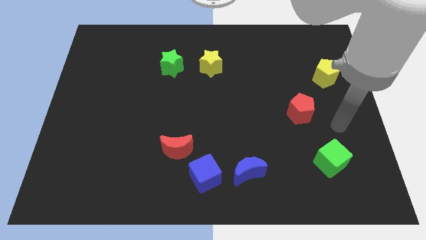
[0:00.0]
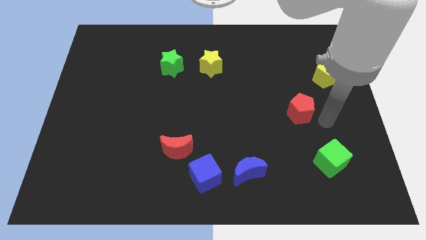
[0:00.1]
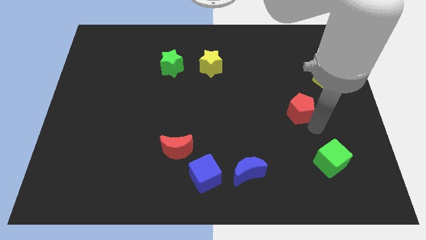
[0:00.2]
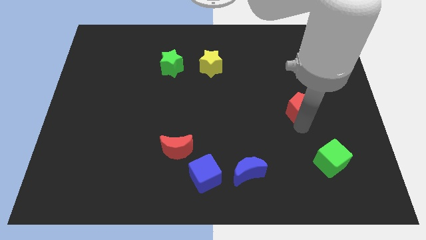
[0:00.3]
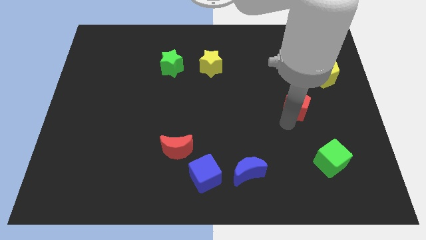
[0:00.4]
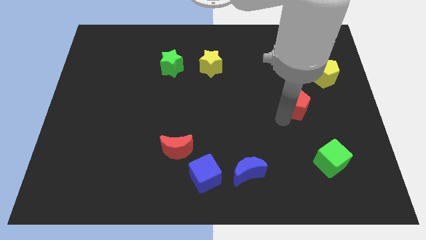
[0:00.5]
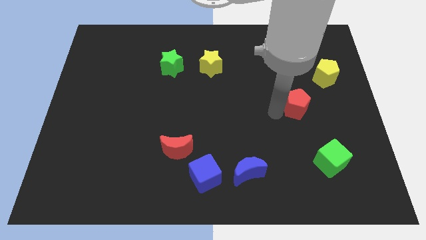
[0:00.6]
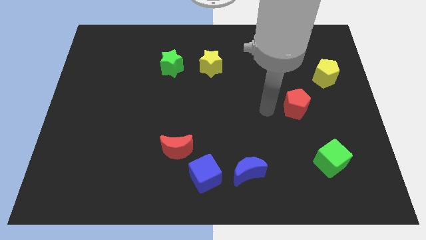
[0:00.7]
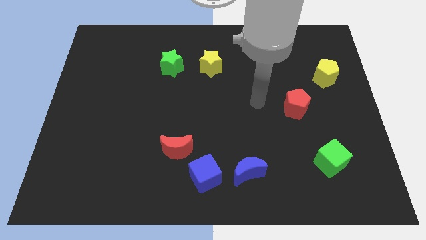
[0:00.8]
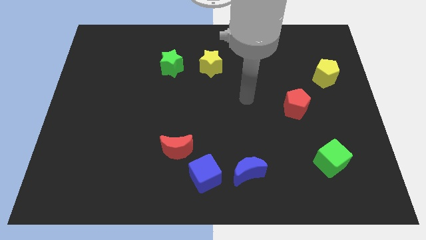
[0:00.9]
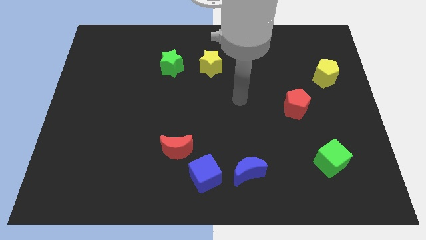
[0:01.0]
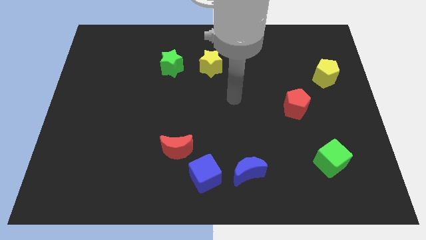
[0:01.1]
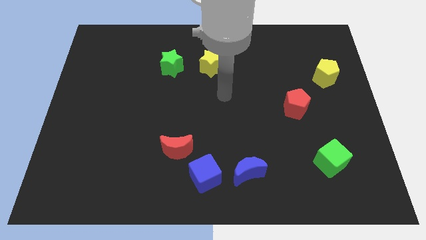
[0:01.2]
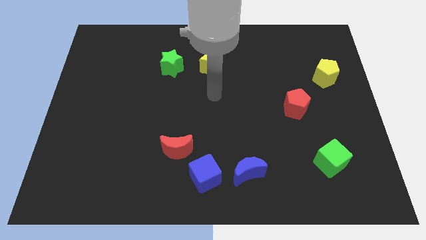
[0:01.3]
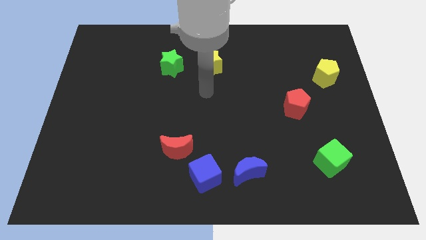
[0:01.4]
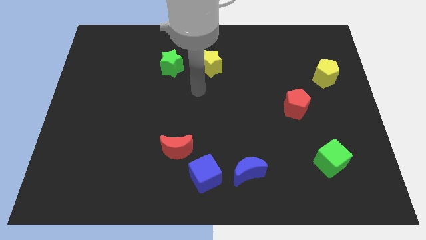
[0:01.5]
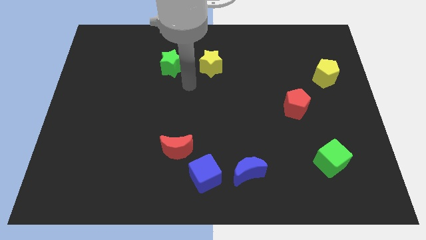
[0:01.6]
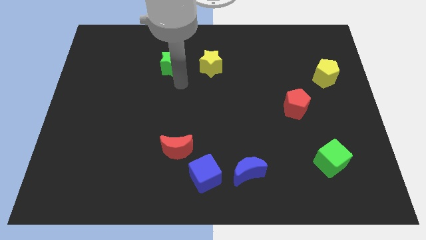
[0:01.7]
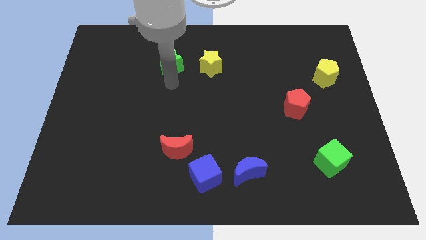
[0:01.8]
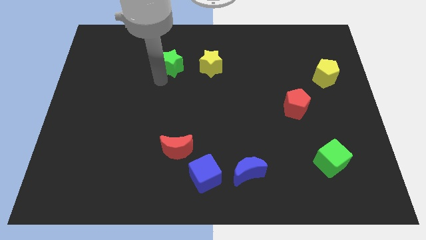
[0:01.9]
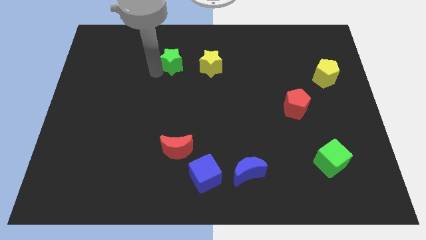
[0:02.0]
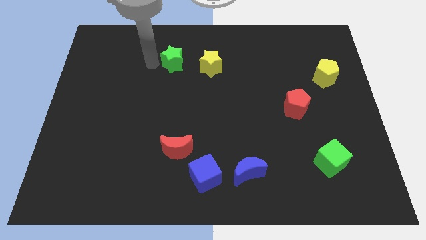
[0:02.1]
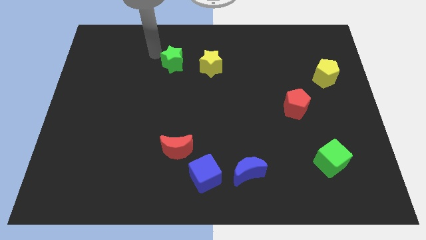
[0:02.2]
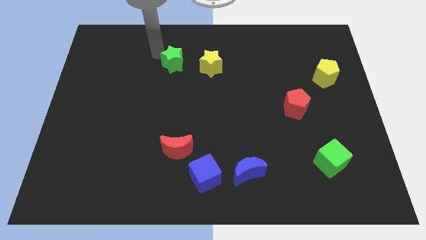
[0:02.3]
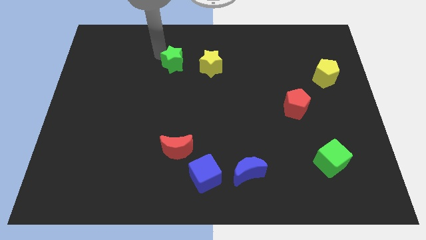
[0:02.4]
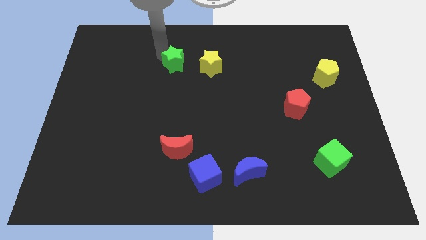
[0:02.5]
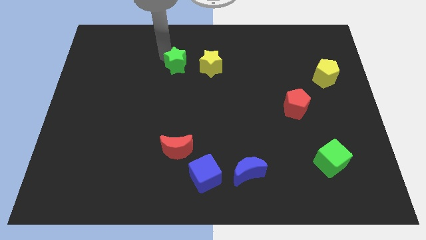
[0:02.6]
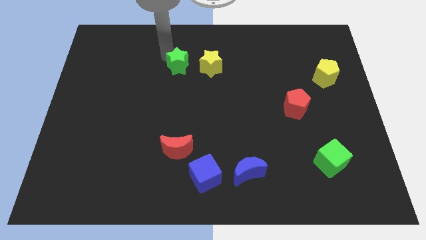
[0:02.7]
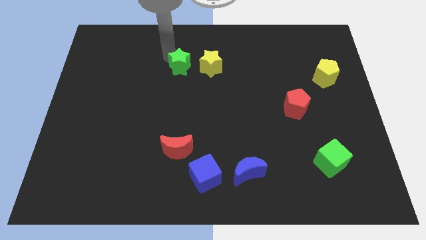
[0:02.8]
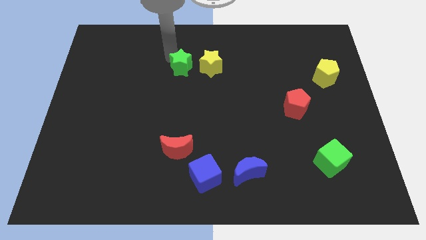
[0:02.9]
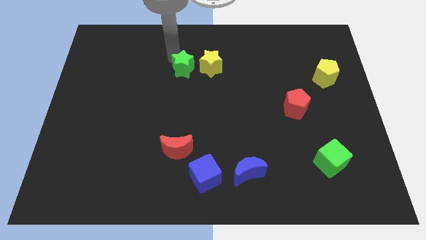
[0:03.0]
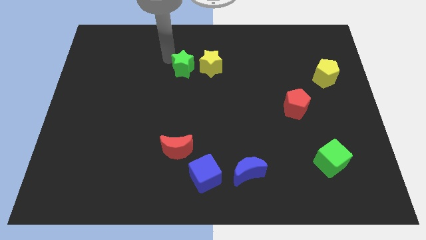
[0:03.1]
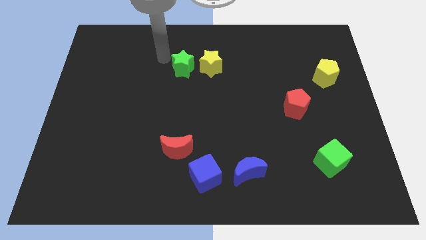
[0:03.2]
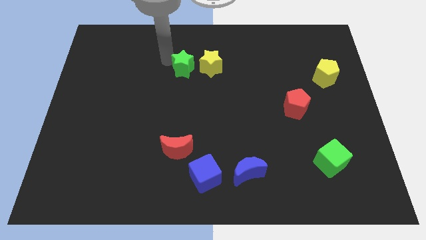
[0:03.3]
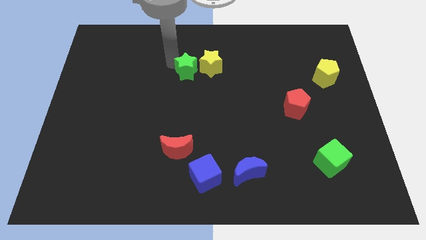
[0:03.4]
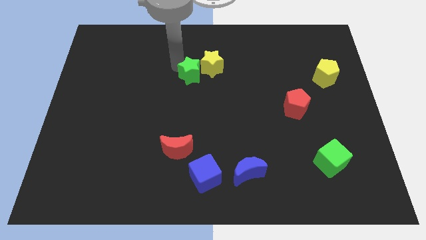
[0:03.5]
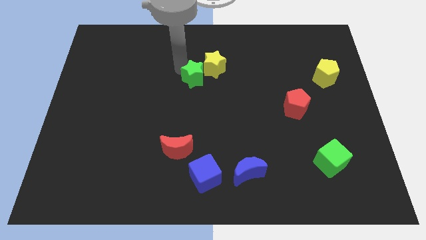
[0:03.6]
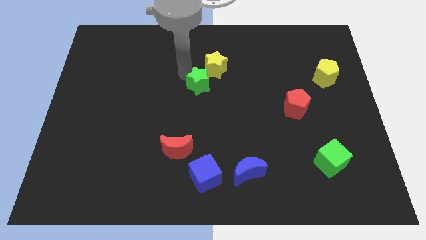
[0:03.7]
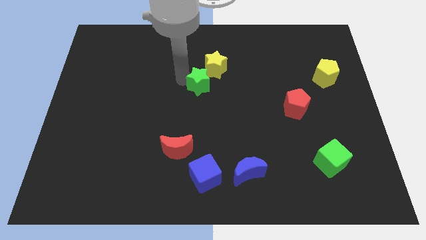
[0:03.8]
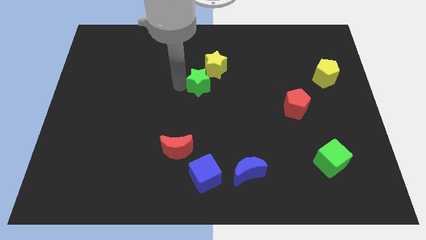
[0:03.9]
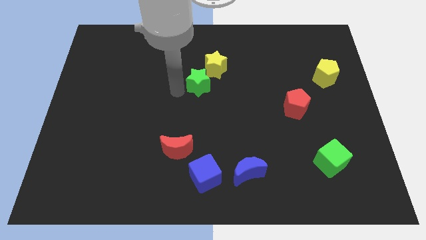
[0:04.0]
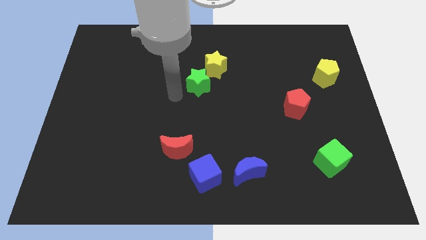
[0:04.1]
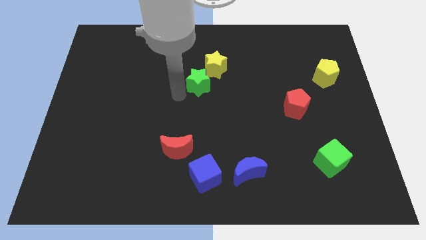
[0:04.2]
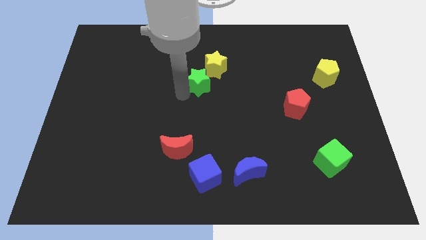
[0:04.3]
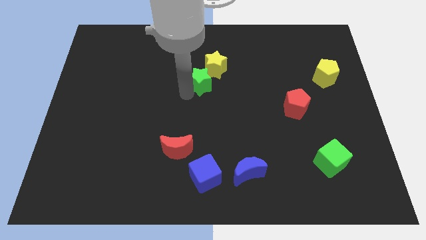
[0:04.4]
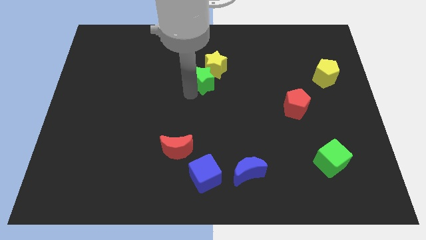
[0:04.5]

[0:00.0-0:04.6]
slightly slide the green star right

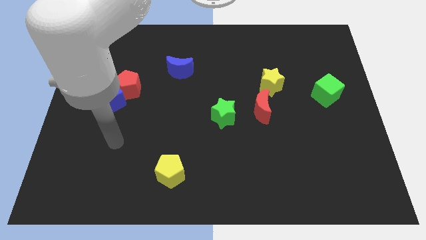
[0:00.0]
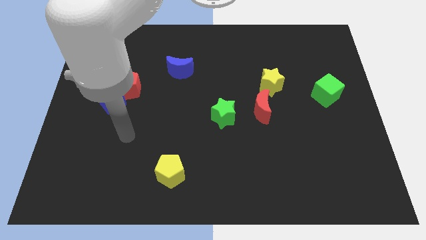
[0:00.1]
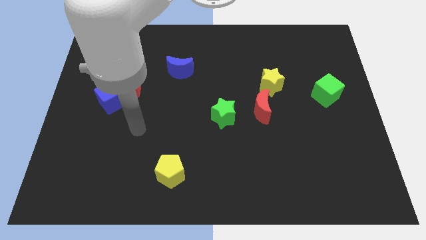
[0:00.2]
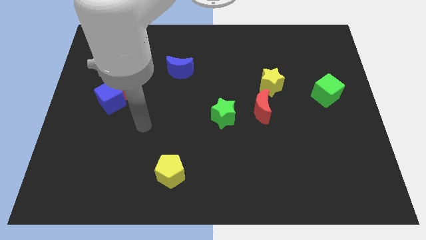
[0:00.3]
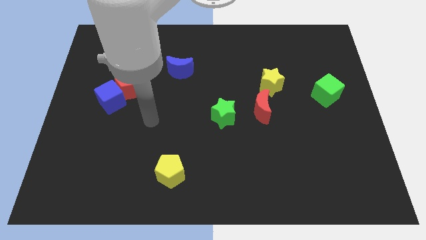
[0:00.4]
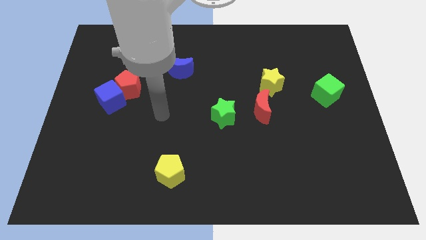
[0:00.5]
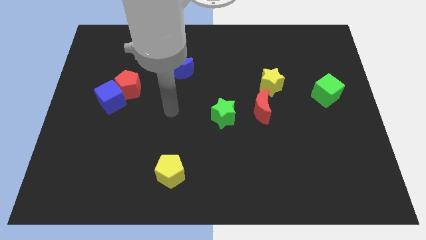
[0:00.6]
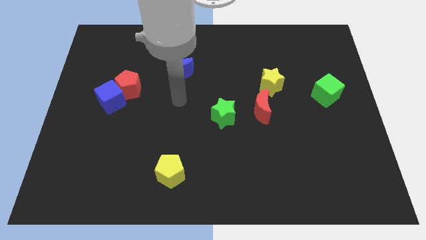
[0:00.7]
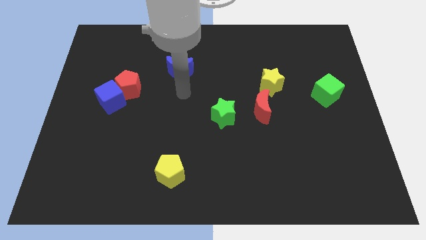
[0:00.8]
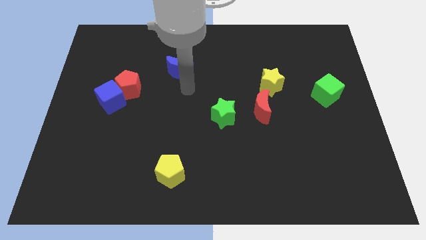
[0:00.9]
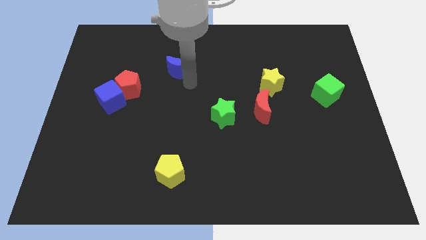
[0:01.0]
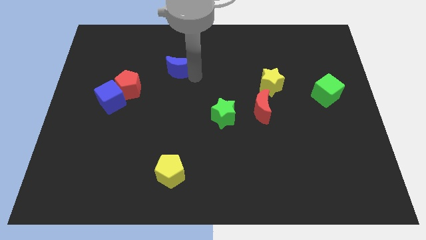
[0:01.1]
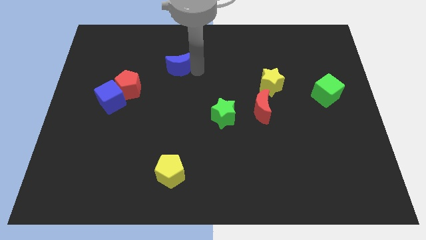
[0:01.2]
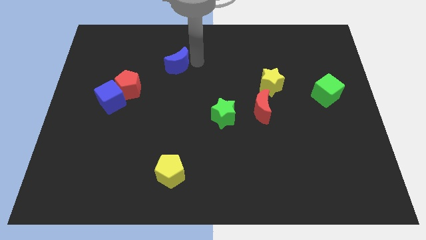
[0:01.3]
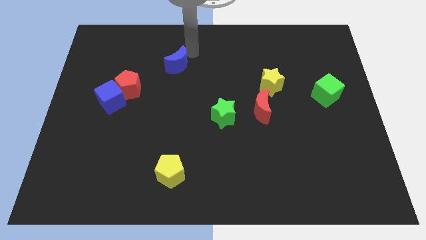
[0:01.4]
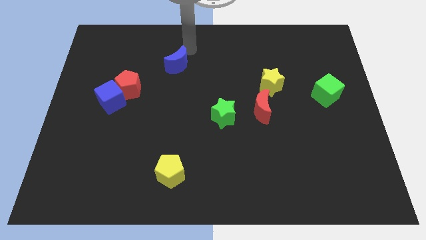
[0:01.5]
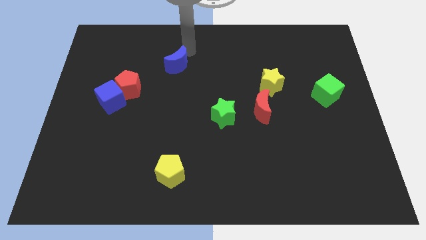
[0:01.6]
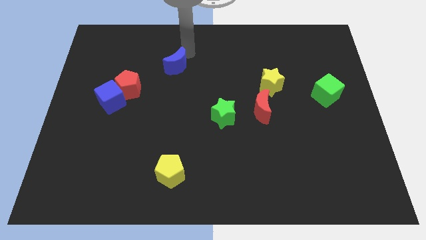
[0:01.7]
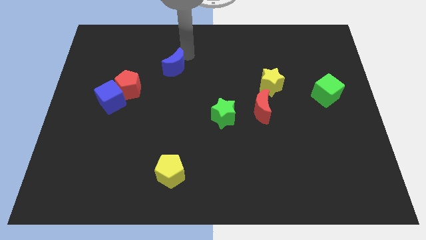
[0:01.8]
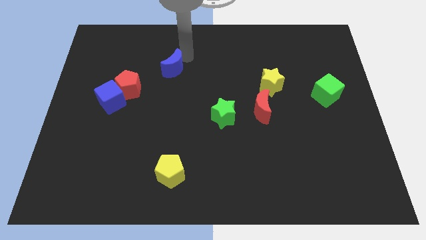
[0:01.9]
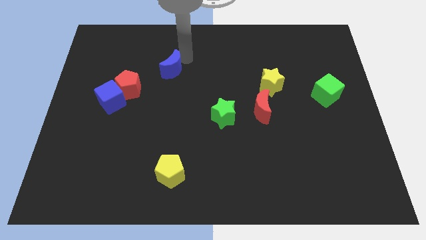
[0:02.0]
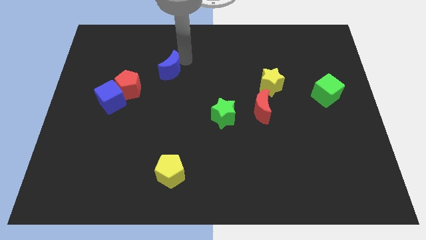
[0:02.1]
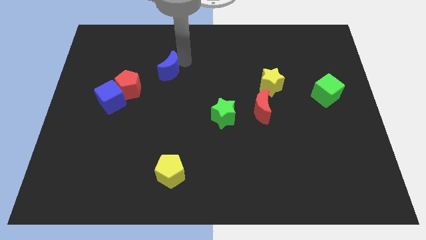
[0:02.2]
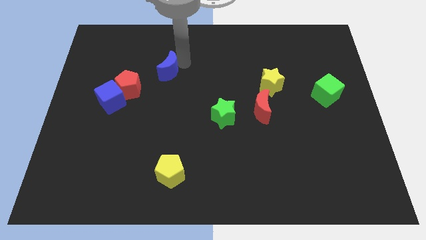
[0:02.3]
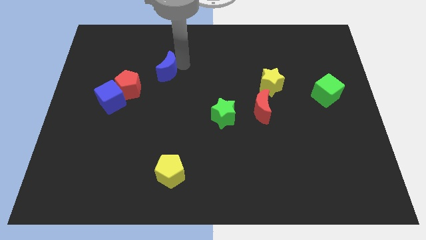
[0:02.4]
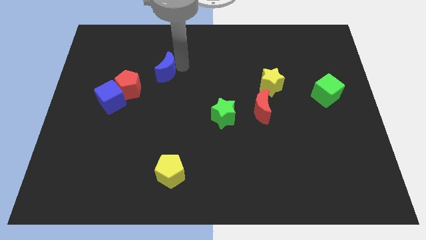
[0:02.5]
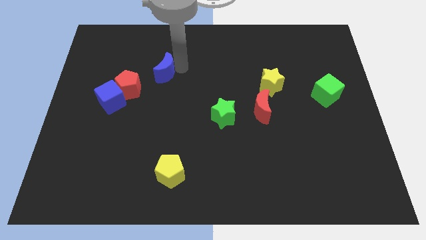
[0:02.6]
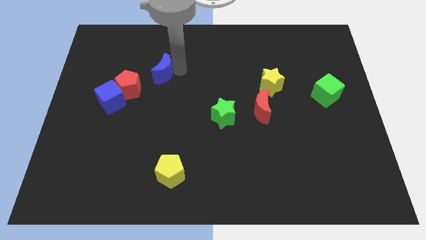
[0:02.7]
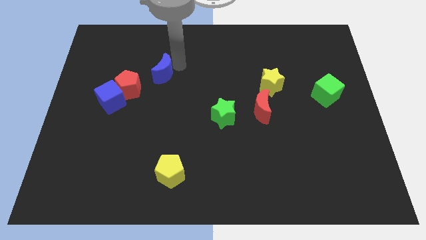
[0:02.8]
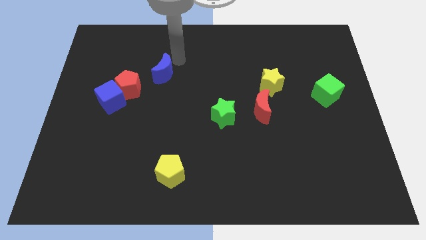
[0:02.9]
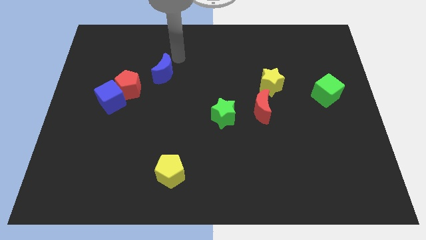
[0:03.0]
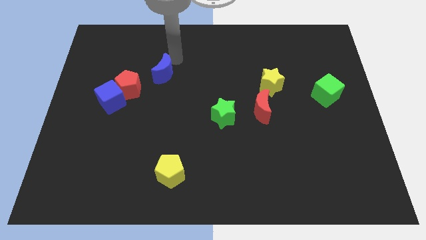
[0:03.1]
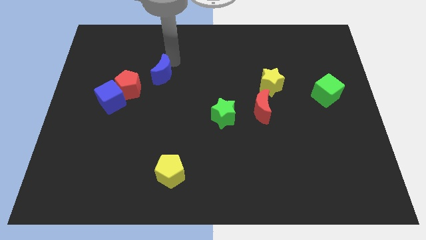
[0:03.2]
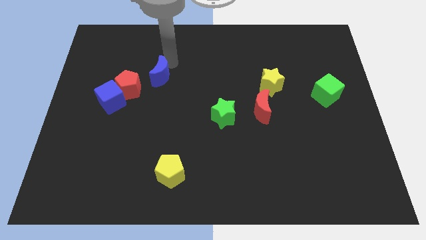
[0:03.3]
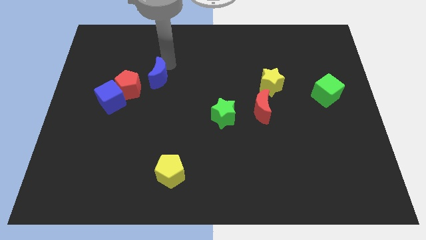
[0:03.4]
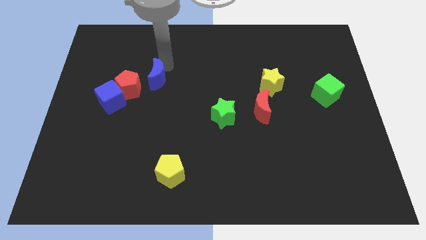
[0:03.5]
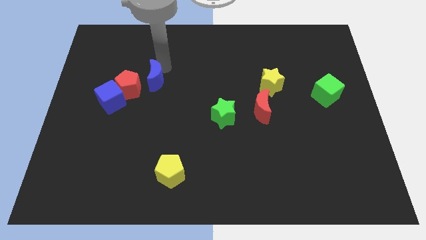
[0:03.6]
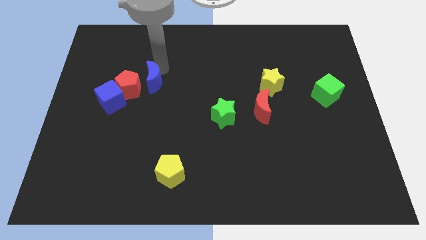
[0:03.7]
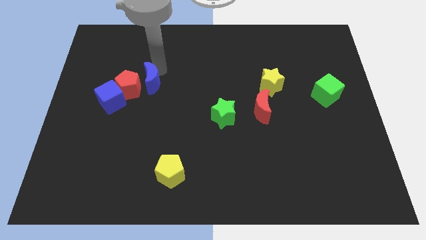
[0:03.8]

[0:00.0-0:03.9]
push the blue moon a little bit down and left diagonally
